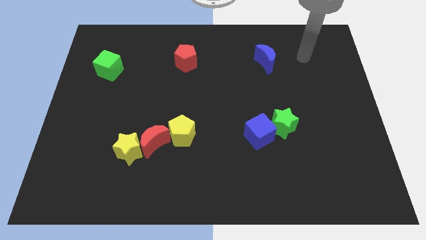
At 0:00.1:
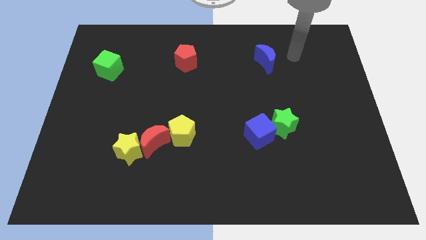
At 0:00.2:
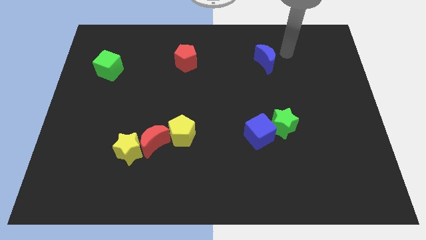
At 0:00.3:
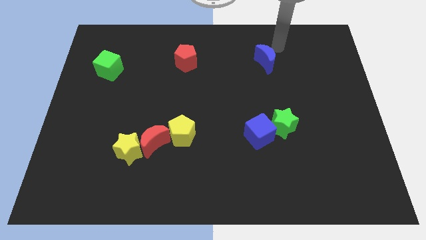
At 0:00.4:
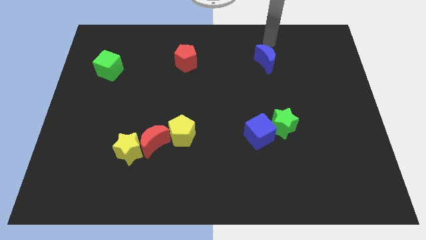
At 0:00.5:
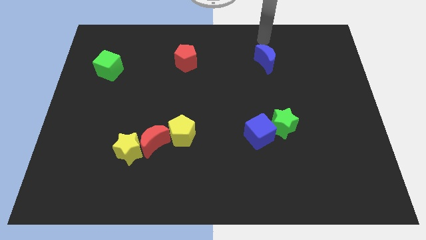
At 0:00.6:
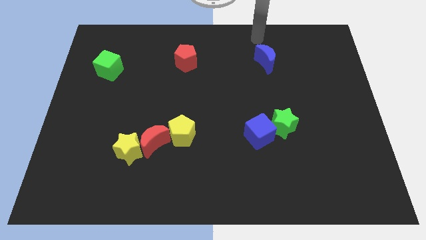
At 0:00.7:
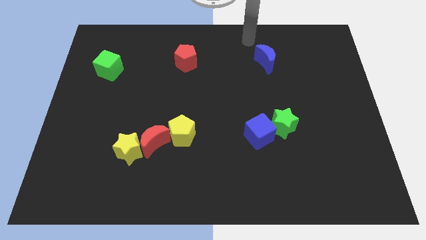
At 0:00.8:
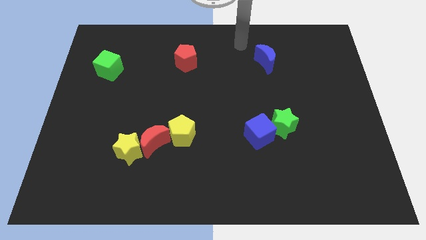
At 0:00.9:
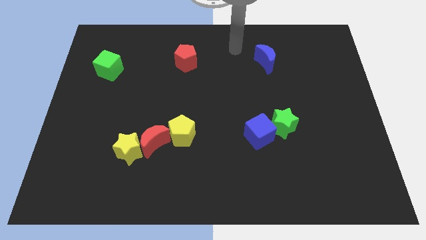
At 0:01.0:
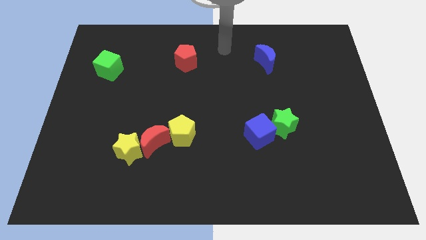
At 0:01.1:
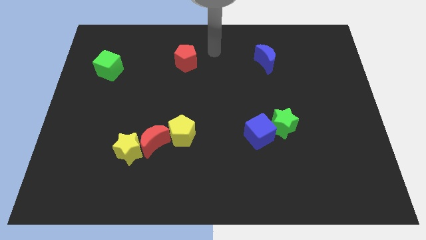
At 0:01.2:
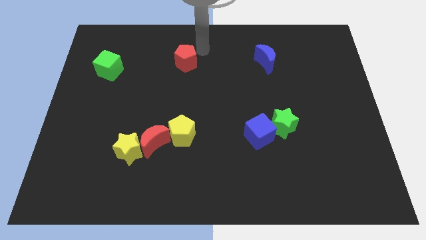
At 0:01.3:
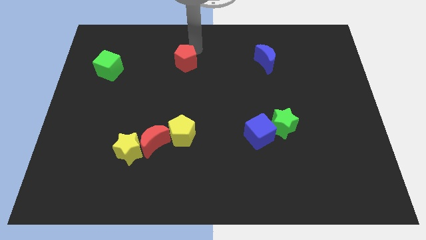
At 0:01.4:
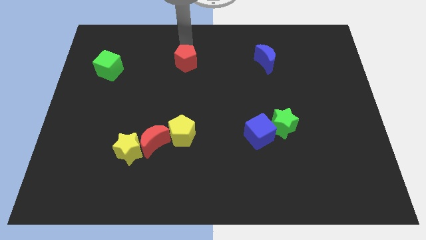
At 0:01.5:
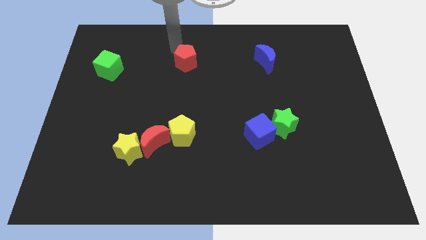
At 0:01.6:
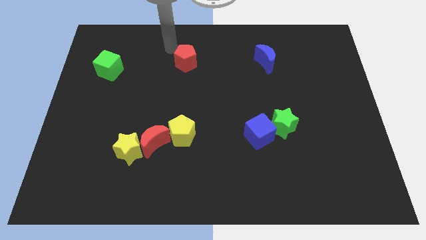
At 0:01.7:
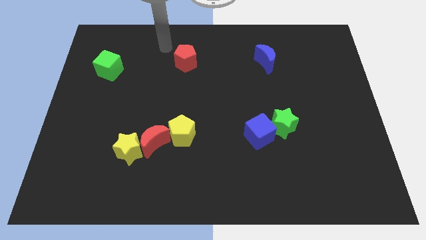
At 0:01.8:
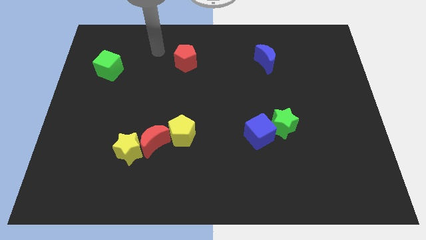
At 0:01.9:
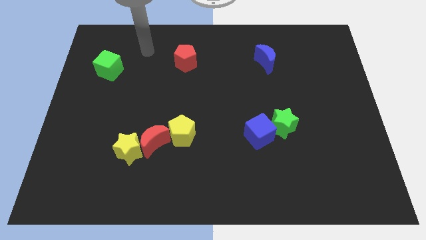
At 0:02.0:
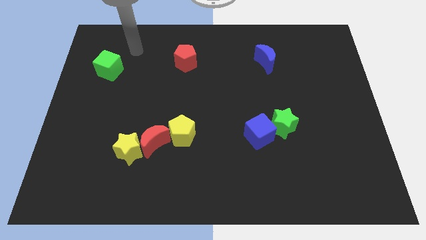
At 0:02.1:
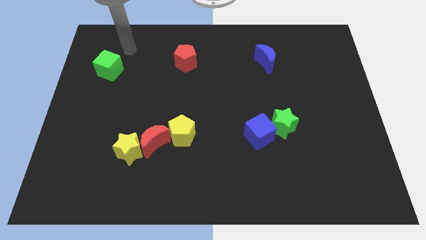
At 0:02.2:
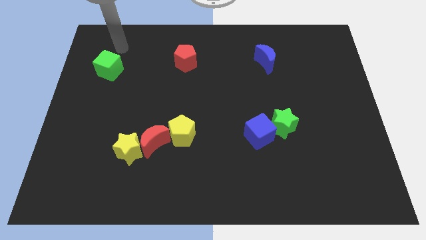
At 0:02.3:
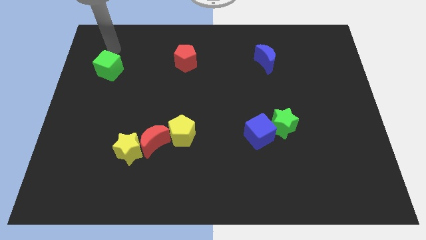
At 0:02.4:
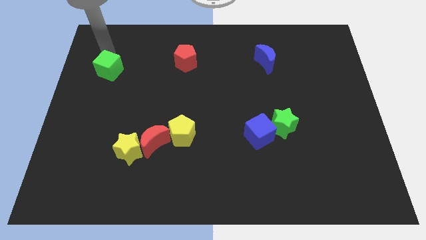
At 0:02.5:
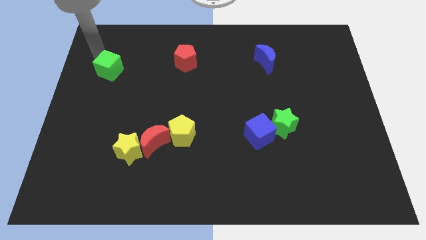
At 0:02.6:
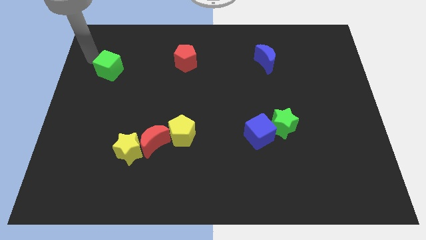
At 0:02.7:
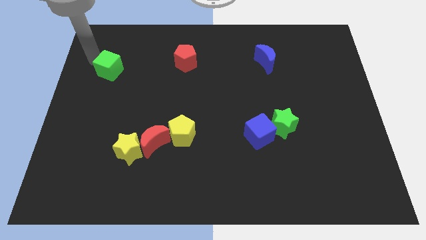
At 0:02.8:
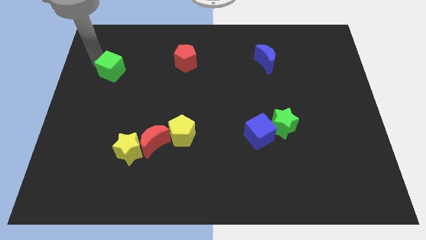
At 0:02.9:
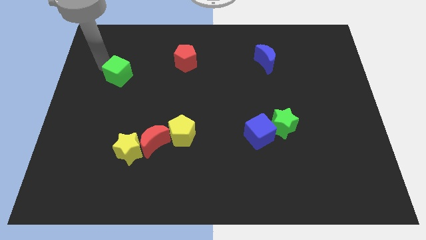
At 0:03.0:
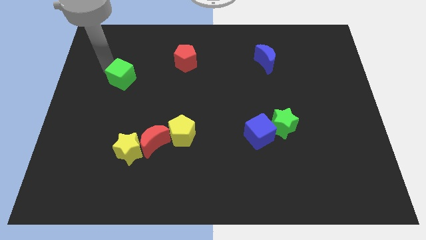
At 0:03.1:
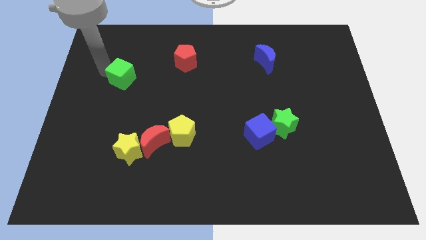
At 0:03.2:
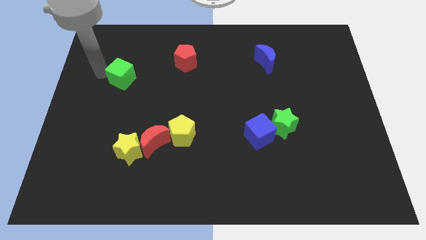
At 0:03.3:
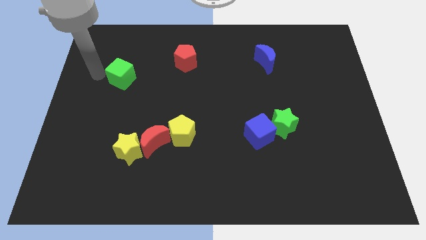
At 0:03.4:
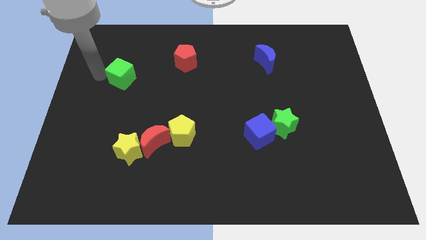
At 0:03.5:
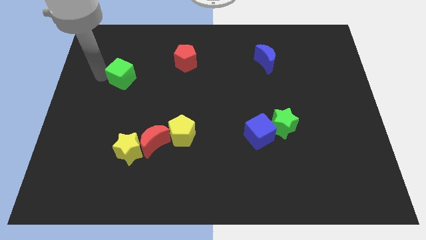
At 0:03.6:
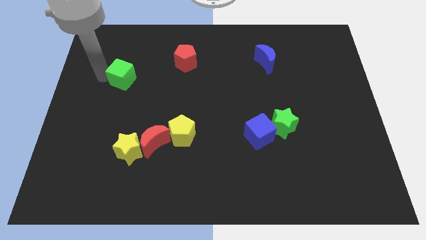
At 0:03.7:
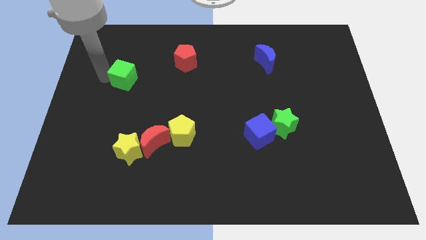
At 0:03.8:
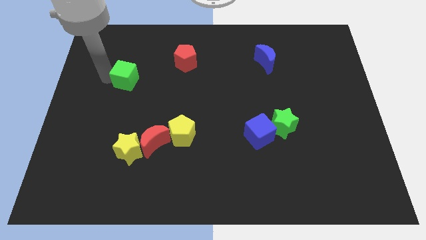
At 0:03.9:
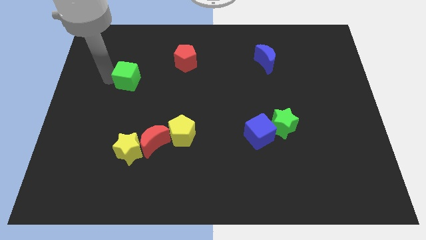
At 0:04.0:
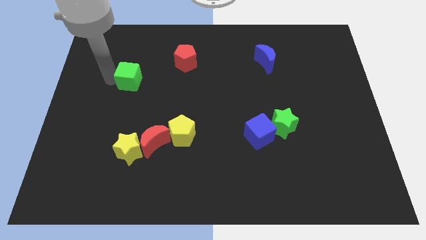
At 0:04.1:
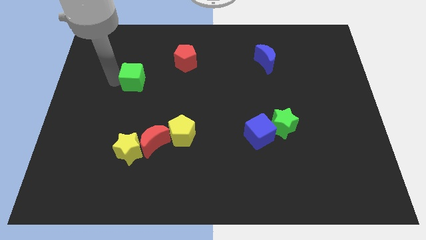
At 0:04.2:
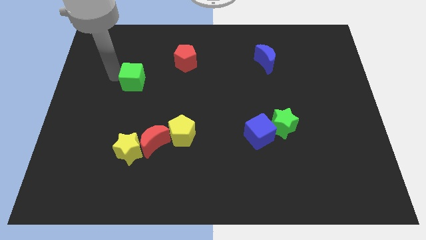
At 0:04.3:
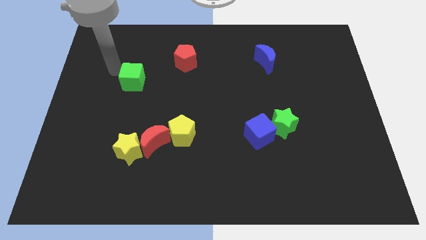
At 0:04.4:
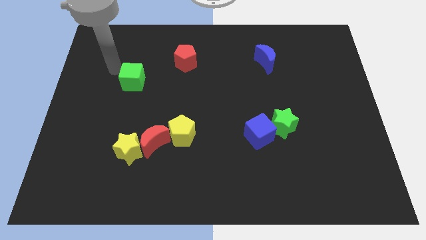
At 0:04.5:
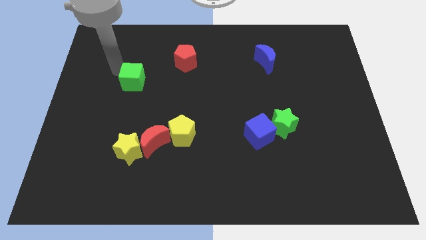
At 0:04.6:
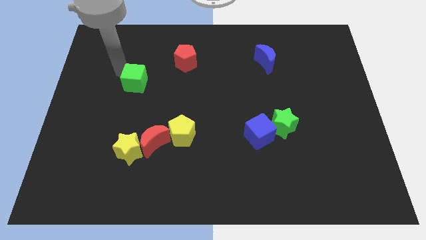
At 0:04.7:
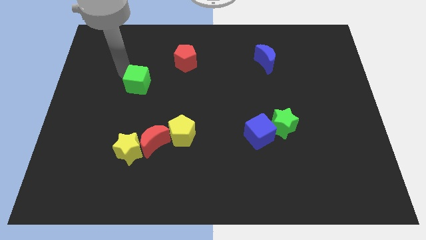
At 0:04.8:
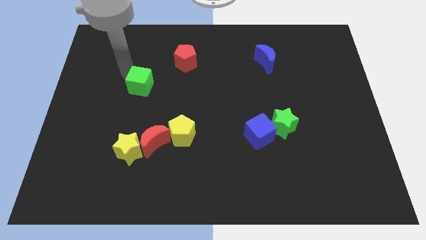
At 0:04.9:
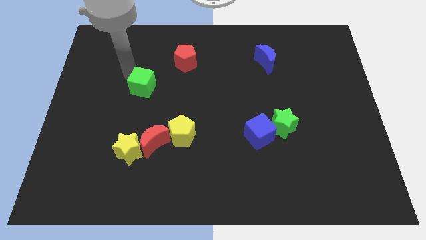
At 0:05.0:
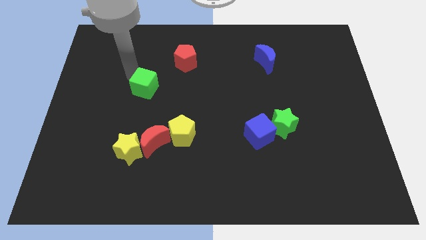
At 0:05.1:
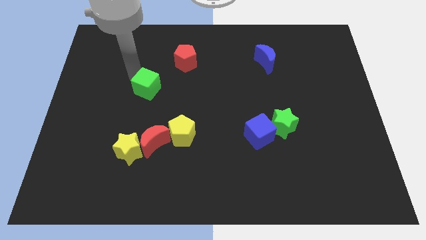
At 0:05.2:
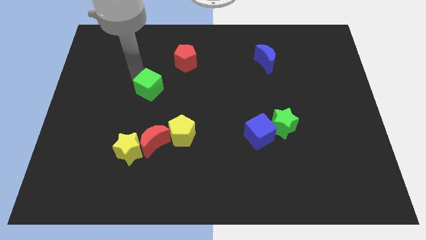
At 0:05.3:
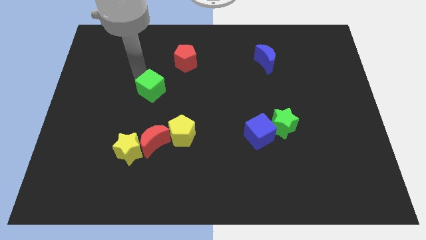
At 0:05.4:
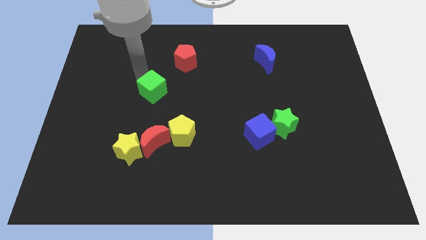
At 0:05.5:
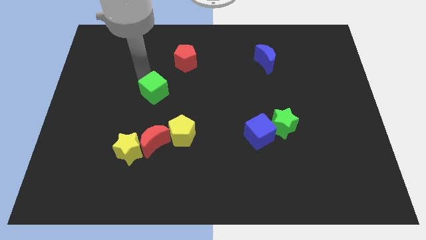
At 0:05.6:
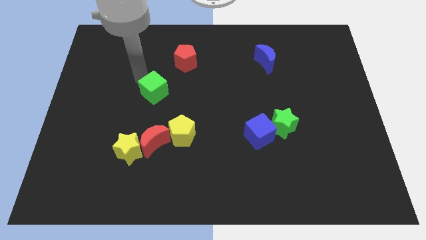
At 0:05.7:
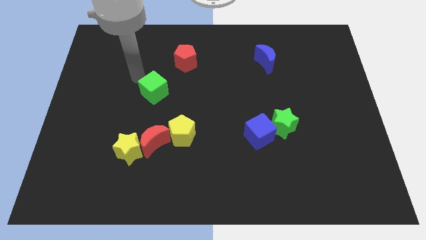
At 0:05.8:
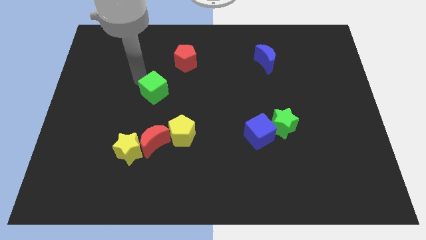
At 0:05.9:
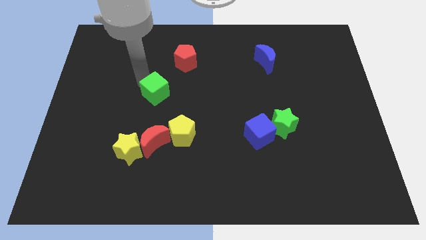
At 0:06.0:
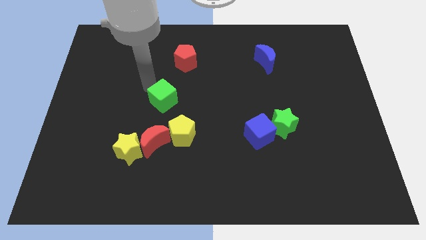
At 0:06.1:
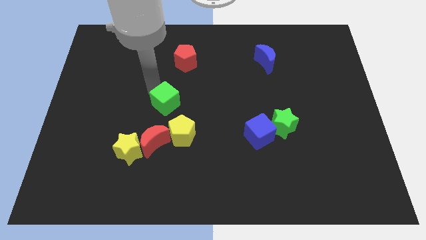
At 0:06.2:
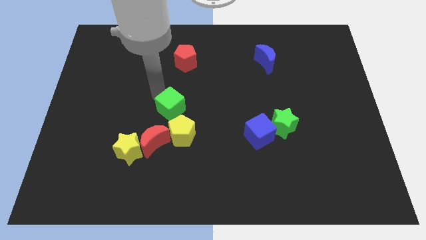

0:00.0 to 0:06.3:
slide the green cube downwards and then right

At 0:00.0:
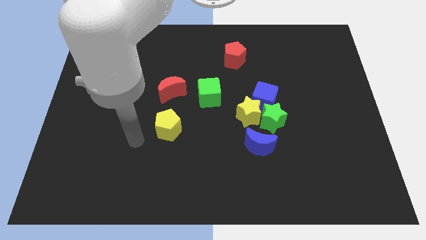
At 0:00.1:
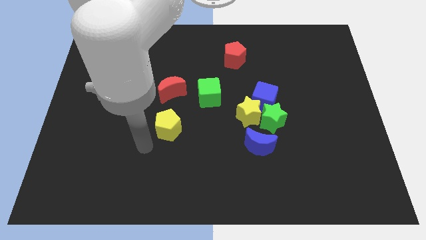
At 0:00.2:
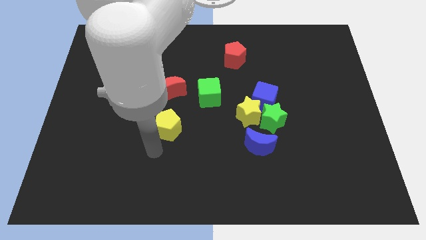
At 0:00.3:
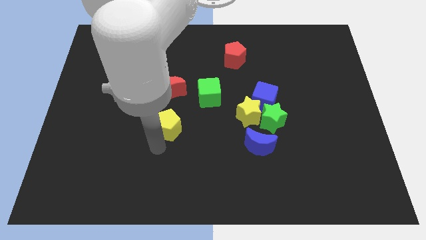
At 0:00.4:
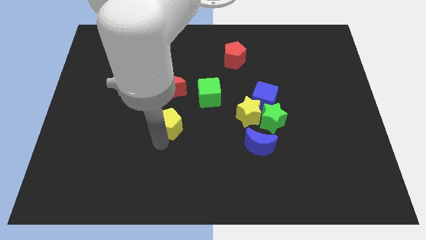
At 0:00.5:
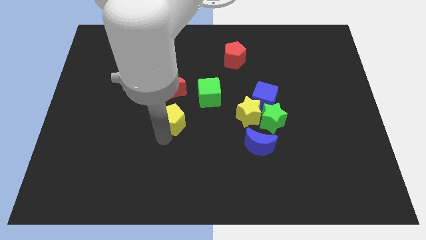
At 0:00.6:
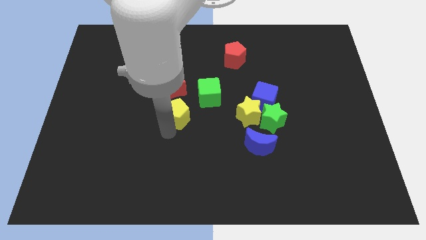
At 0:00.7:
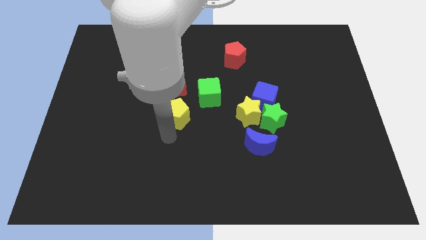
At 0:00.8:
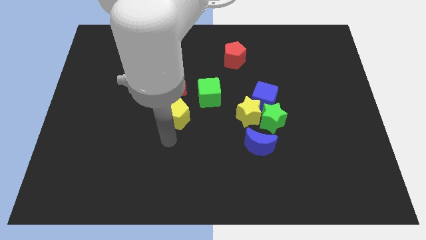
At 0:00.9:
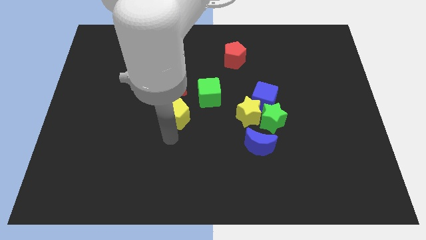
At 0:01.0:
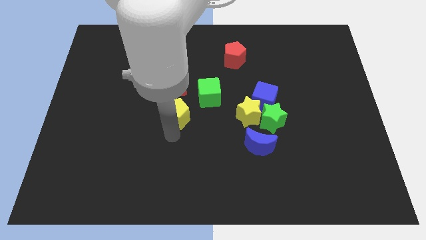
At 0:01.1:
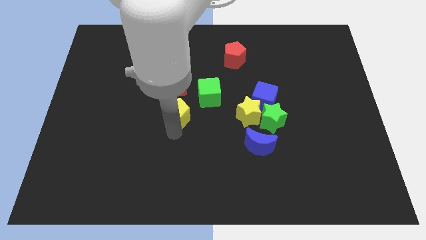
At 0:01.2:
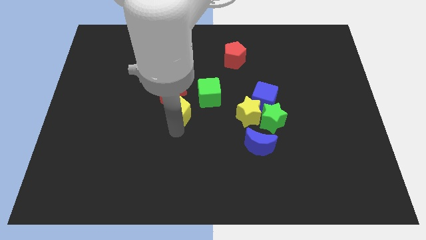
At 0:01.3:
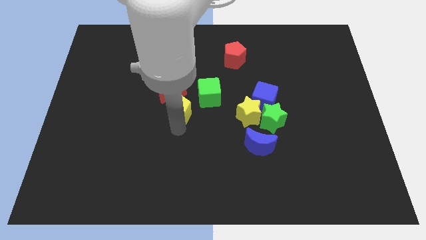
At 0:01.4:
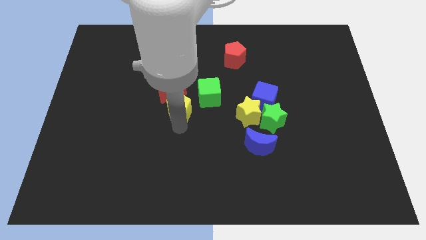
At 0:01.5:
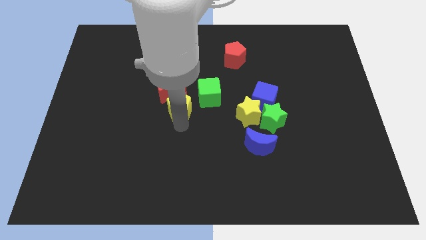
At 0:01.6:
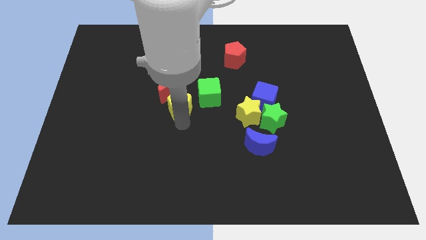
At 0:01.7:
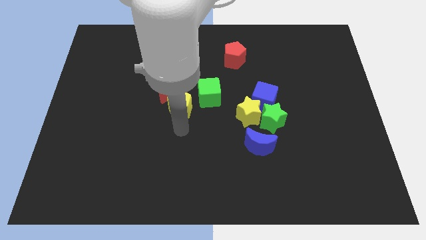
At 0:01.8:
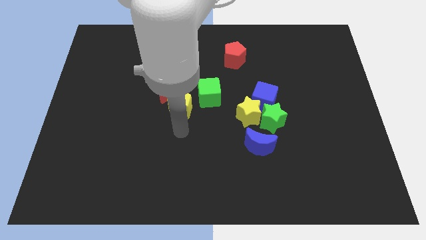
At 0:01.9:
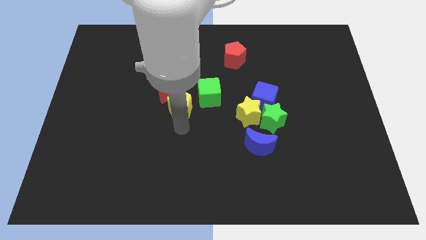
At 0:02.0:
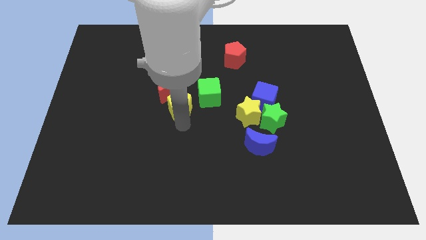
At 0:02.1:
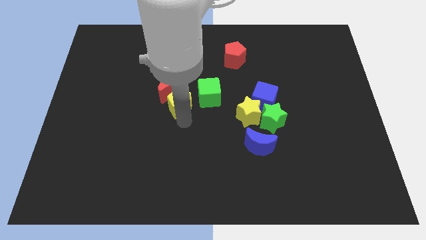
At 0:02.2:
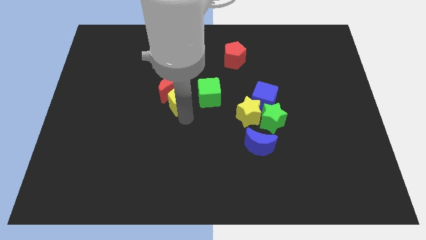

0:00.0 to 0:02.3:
slide the yellow pentagon upwards a little
